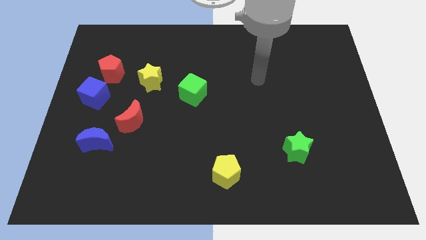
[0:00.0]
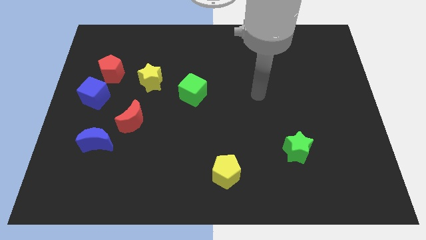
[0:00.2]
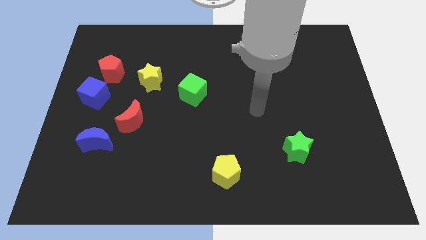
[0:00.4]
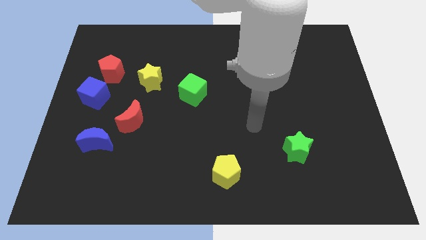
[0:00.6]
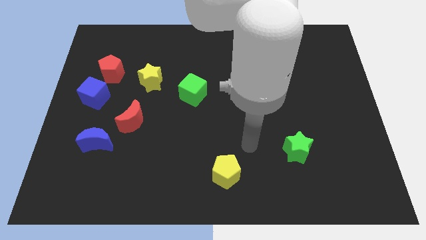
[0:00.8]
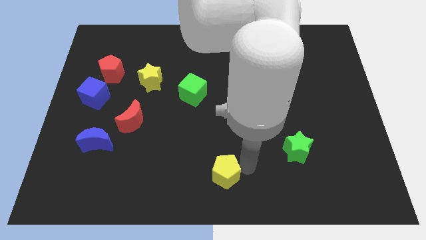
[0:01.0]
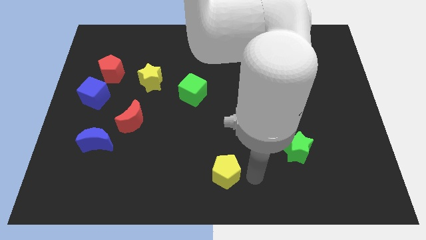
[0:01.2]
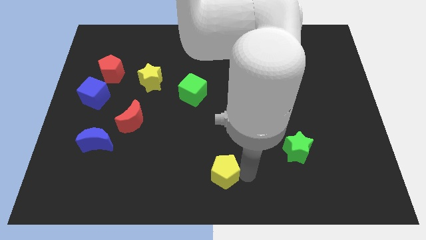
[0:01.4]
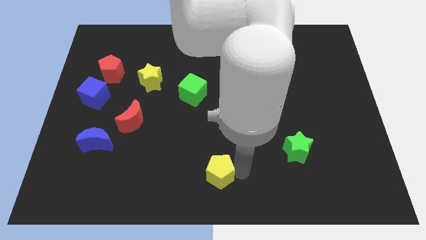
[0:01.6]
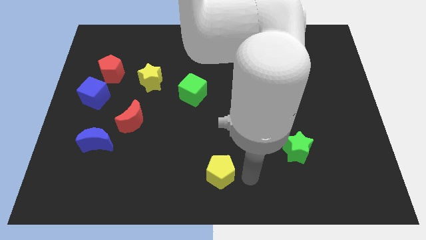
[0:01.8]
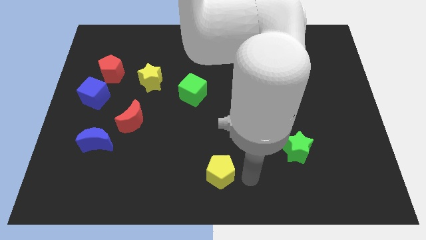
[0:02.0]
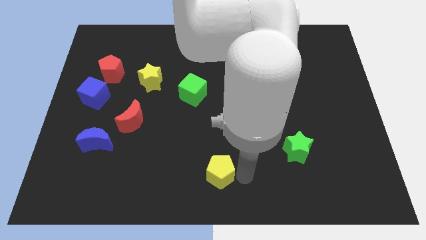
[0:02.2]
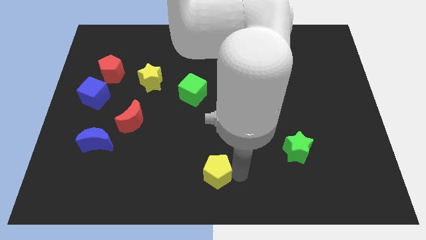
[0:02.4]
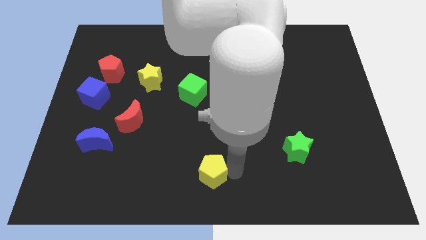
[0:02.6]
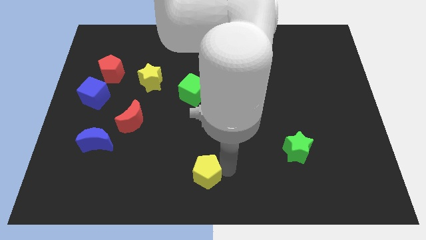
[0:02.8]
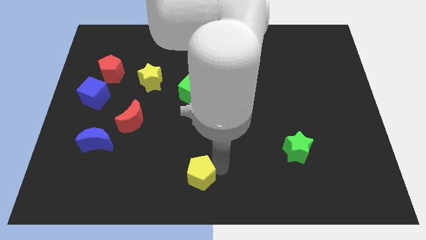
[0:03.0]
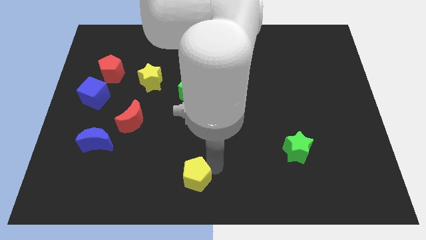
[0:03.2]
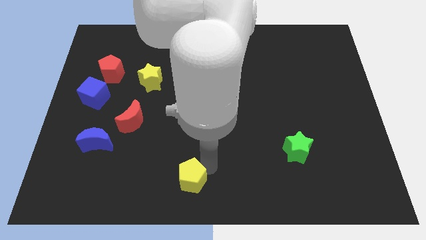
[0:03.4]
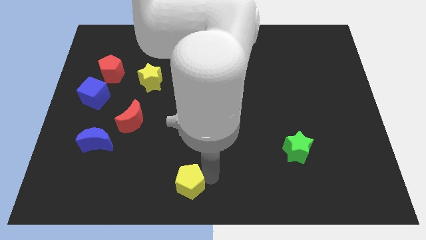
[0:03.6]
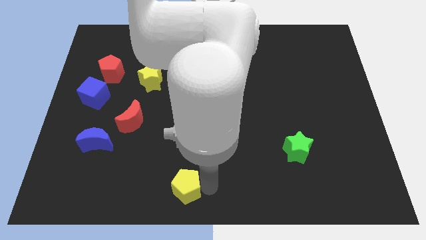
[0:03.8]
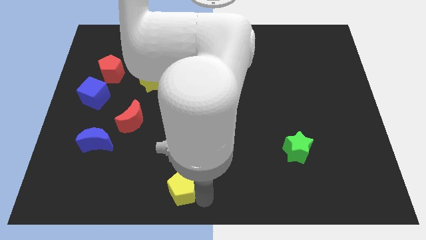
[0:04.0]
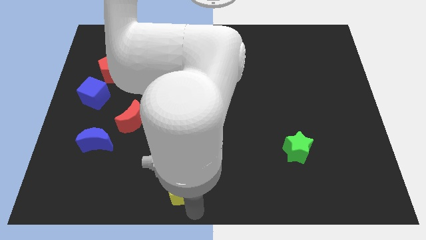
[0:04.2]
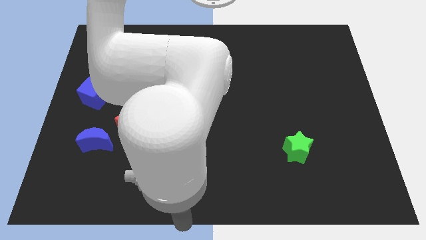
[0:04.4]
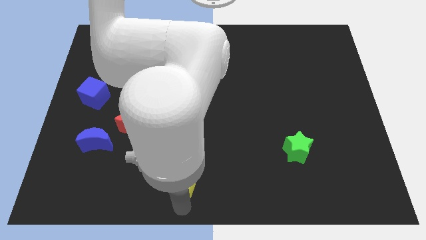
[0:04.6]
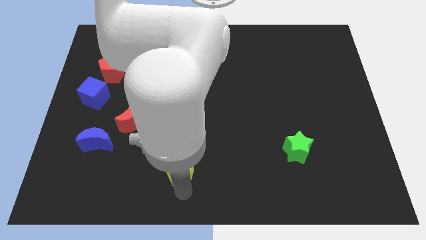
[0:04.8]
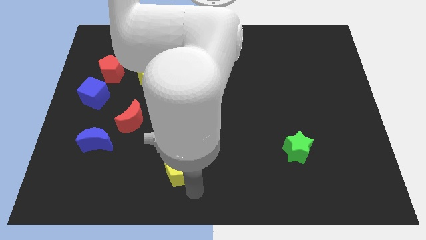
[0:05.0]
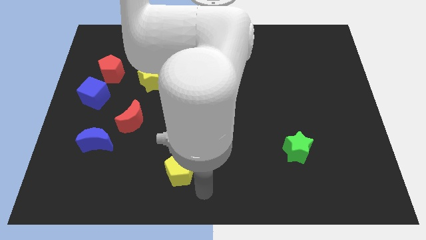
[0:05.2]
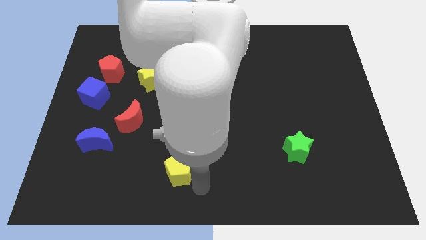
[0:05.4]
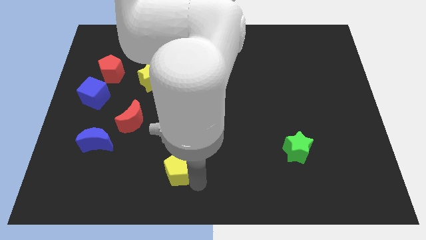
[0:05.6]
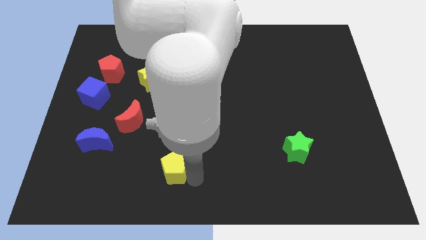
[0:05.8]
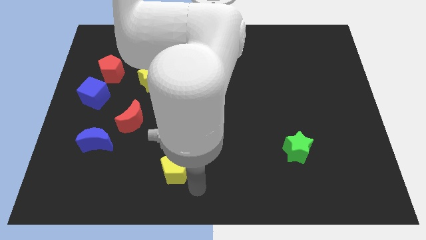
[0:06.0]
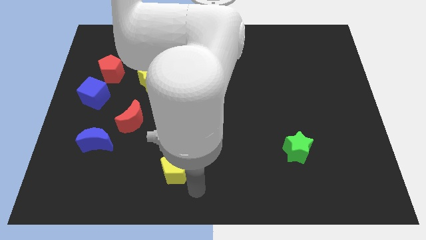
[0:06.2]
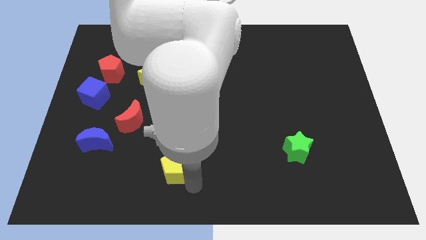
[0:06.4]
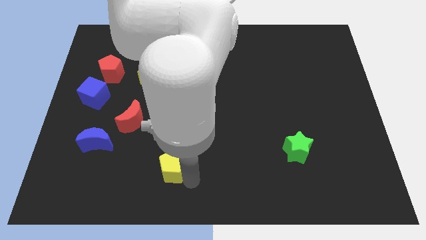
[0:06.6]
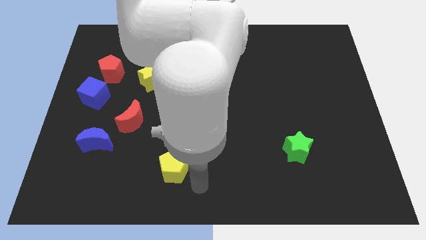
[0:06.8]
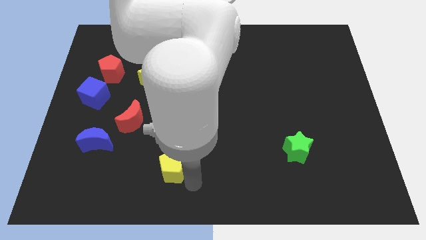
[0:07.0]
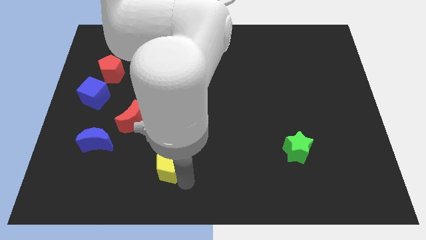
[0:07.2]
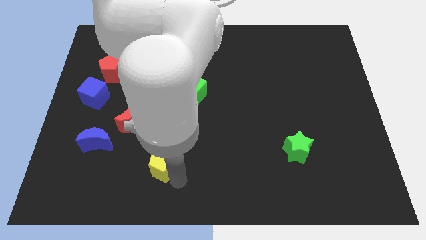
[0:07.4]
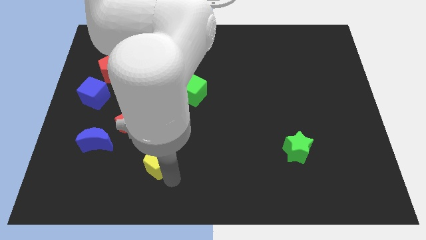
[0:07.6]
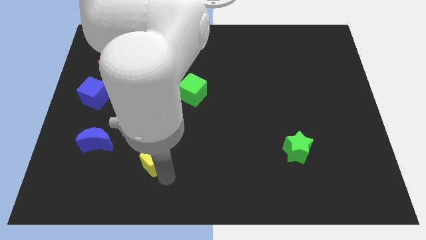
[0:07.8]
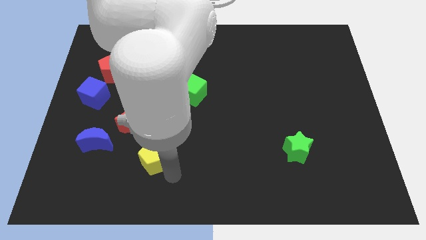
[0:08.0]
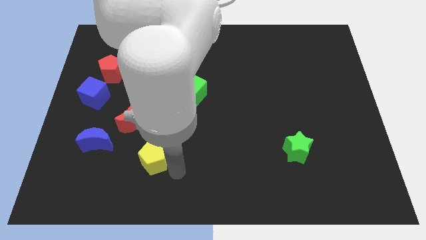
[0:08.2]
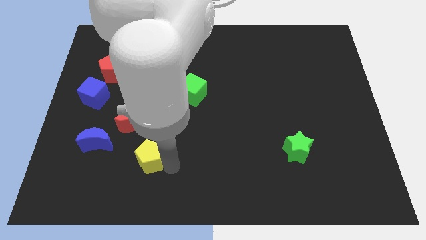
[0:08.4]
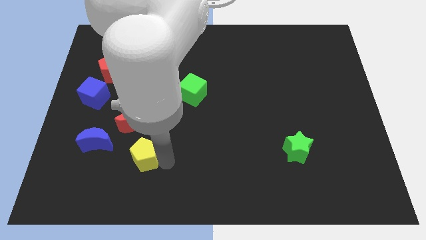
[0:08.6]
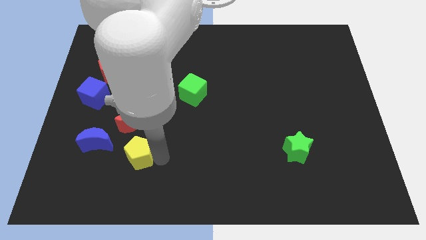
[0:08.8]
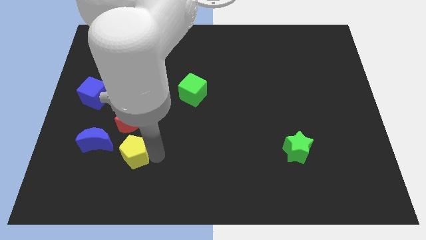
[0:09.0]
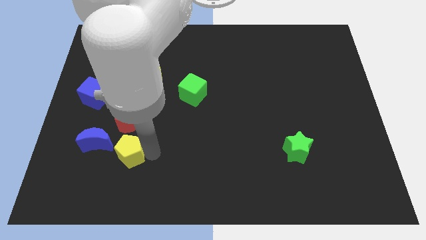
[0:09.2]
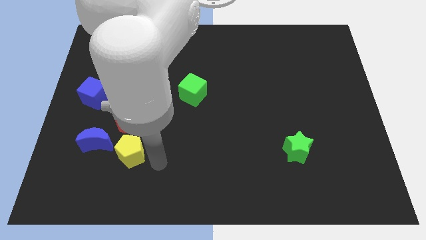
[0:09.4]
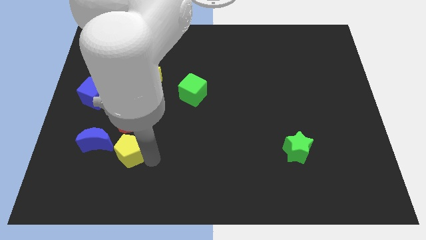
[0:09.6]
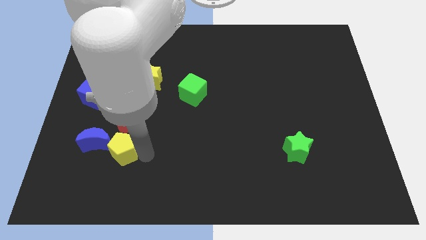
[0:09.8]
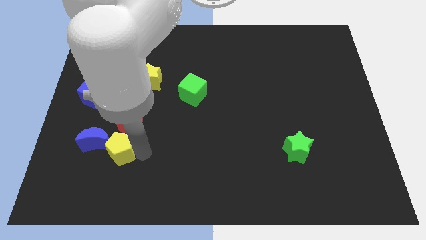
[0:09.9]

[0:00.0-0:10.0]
slide the yellow pentagon to the blue moon

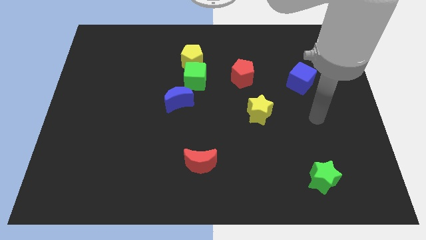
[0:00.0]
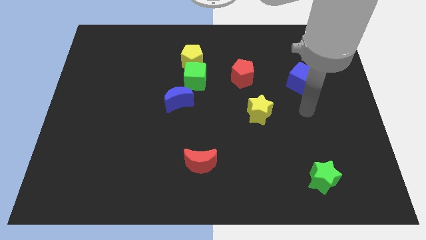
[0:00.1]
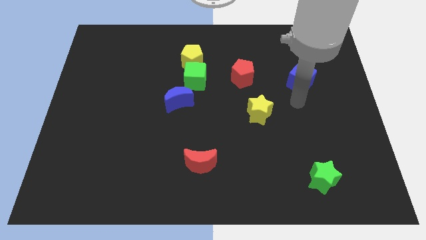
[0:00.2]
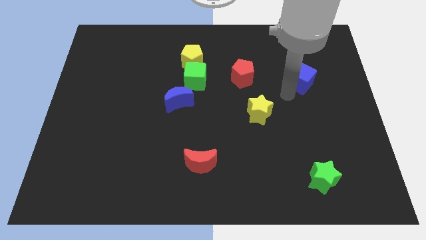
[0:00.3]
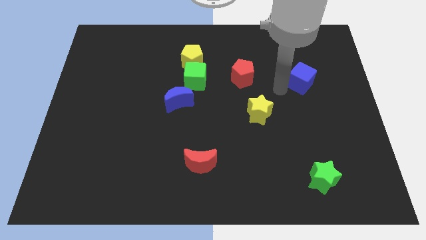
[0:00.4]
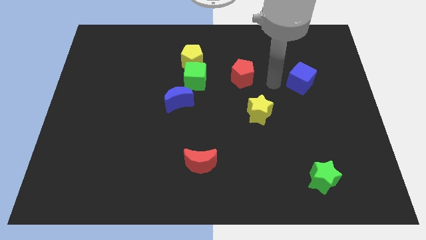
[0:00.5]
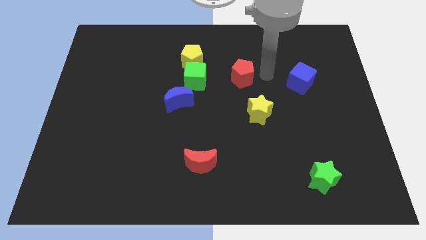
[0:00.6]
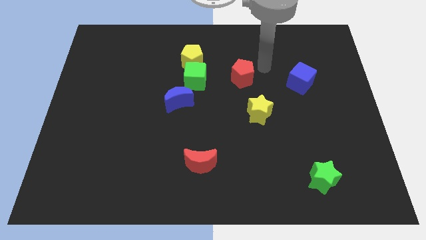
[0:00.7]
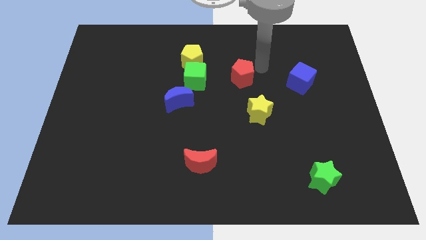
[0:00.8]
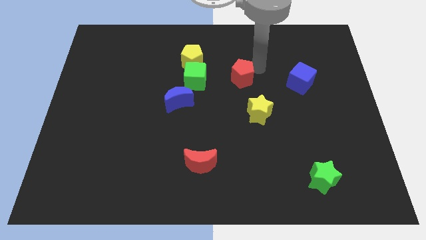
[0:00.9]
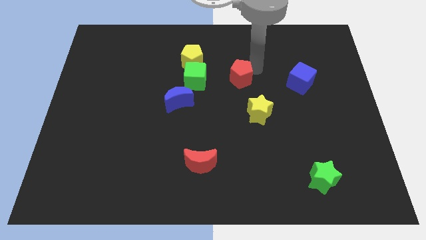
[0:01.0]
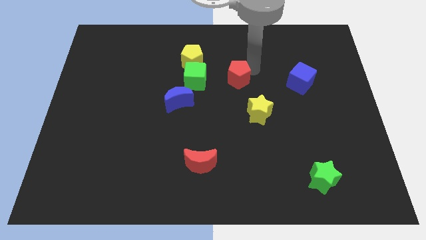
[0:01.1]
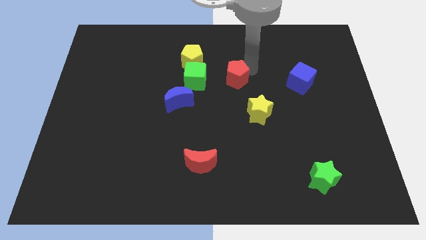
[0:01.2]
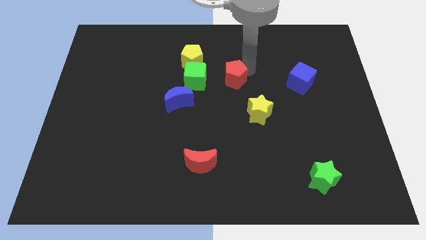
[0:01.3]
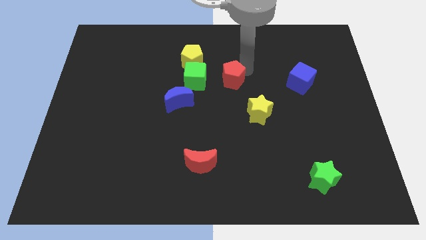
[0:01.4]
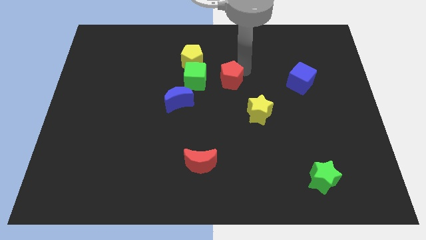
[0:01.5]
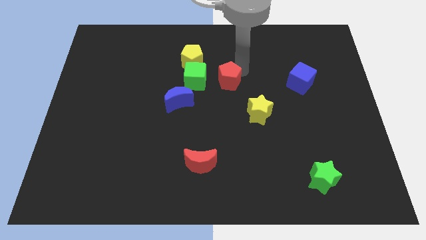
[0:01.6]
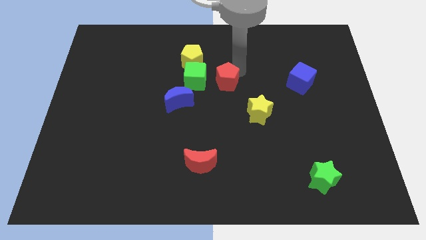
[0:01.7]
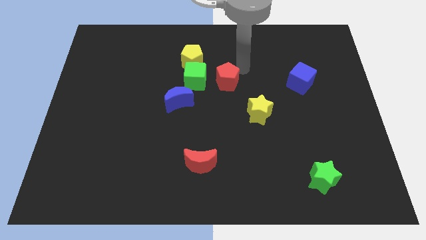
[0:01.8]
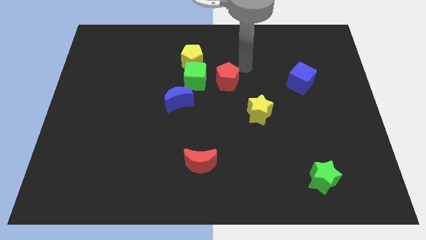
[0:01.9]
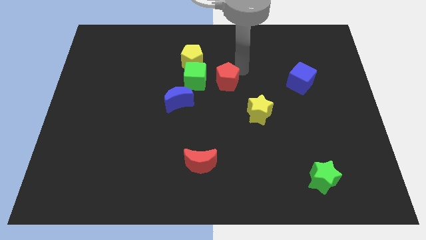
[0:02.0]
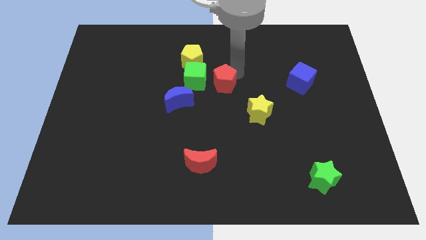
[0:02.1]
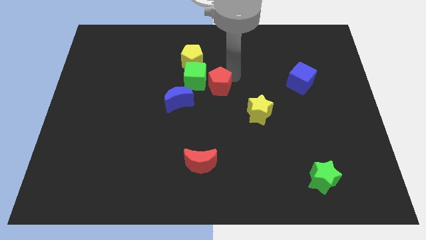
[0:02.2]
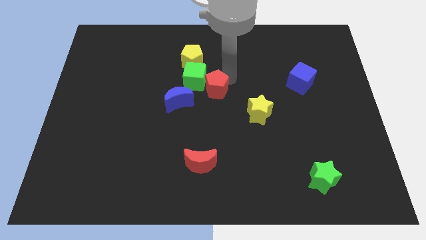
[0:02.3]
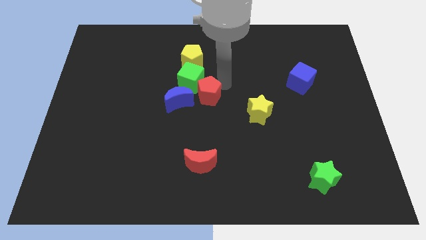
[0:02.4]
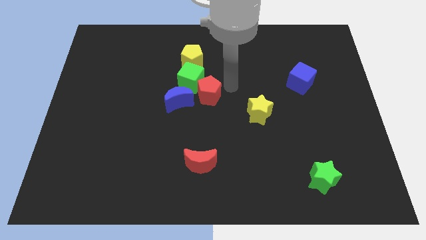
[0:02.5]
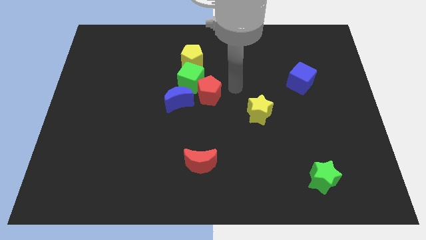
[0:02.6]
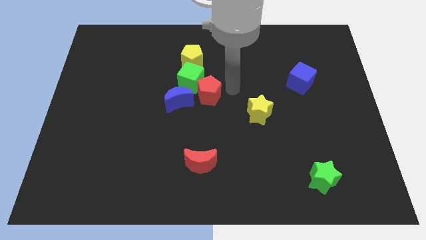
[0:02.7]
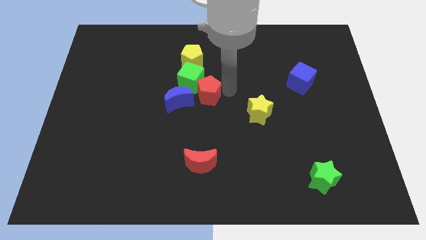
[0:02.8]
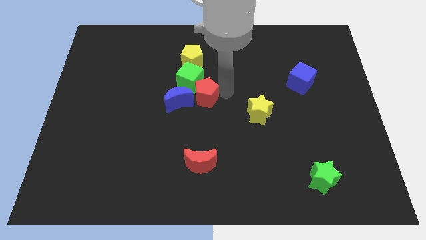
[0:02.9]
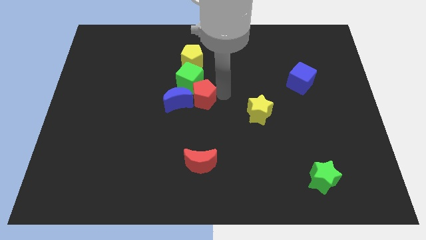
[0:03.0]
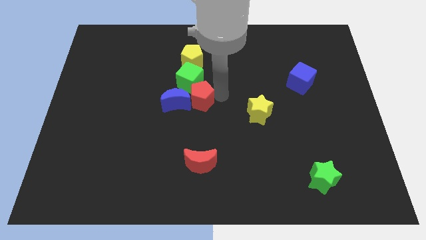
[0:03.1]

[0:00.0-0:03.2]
slide the red pentagon next to the blue moon
